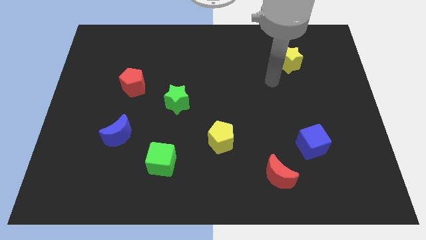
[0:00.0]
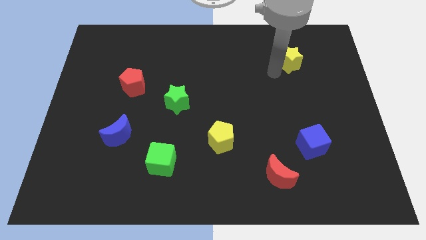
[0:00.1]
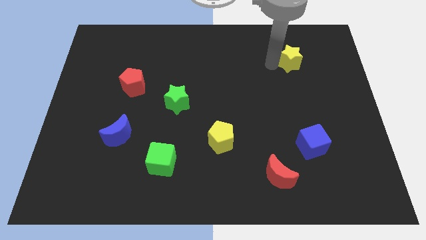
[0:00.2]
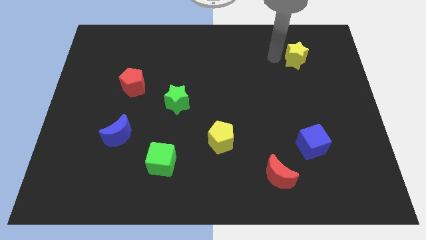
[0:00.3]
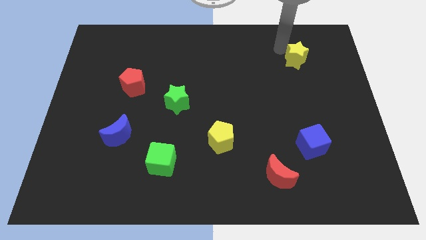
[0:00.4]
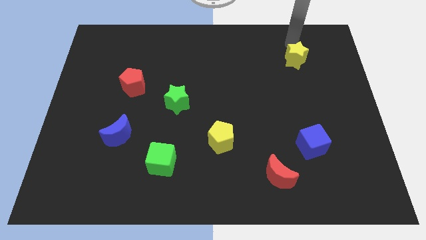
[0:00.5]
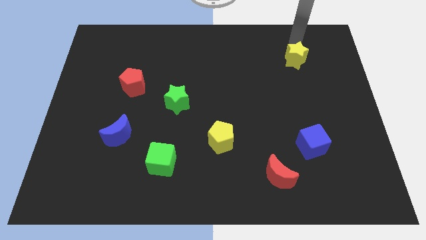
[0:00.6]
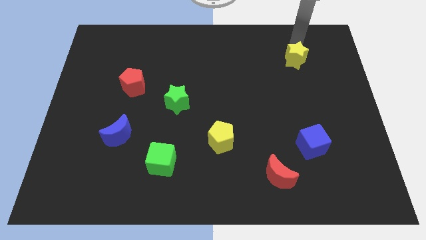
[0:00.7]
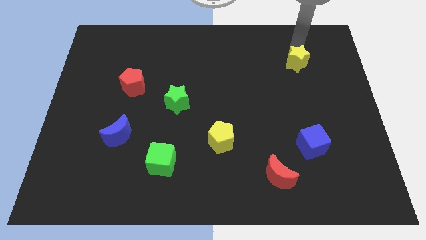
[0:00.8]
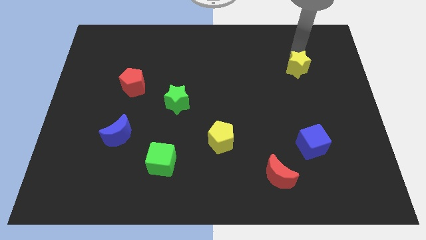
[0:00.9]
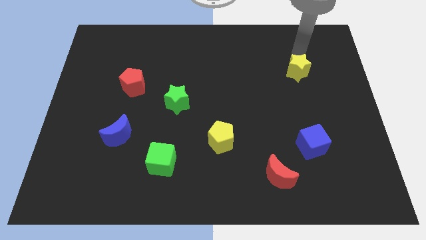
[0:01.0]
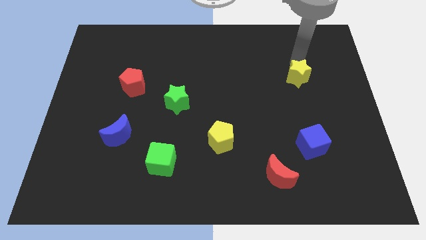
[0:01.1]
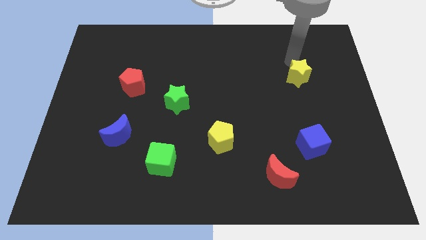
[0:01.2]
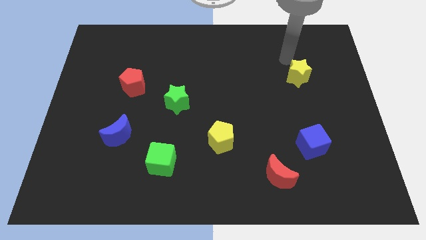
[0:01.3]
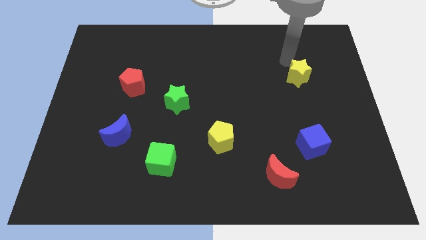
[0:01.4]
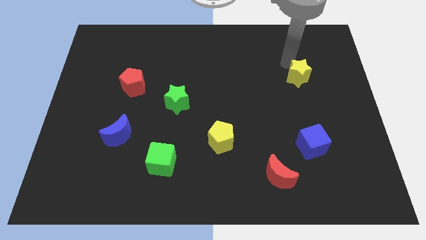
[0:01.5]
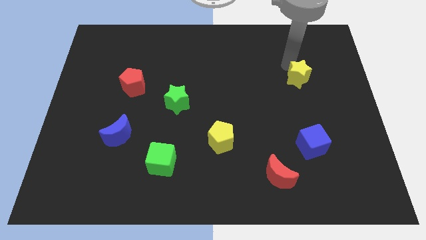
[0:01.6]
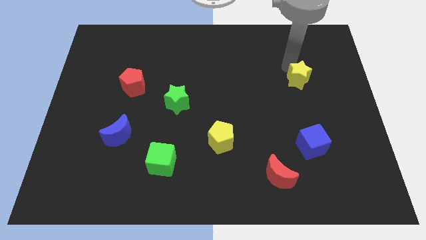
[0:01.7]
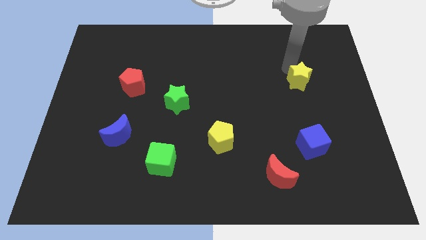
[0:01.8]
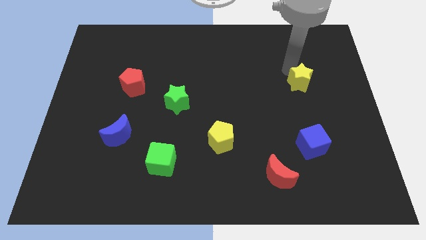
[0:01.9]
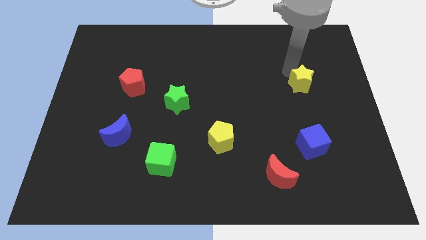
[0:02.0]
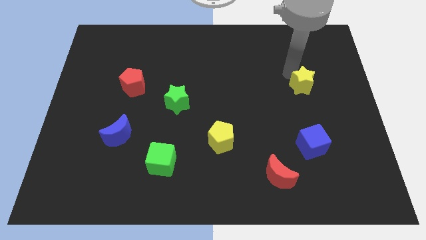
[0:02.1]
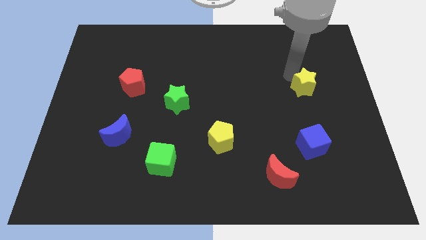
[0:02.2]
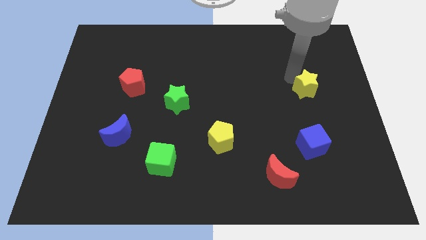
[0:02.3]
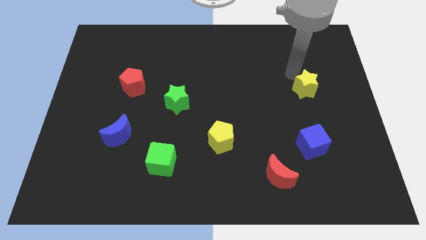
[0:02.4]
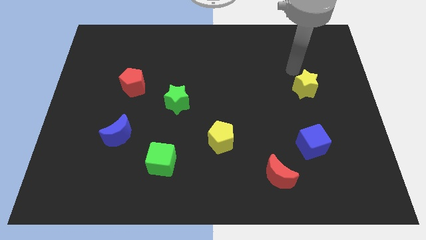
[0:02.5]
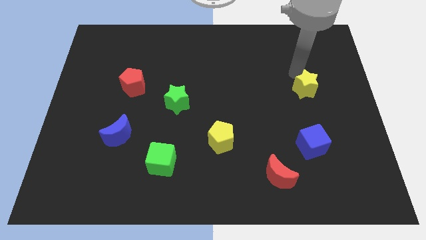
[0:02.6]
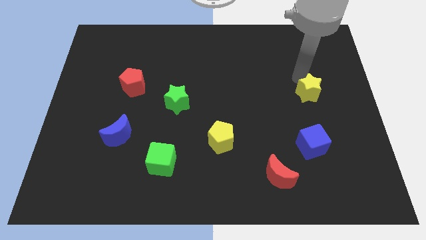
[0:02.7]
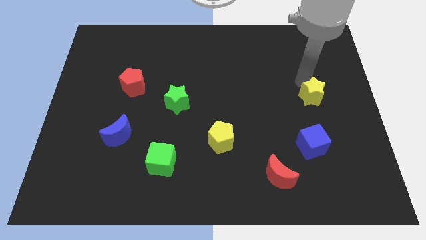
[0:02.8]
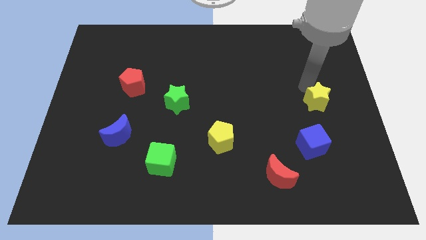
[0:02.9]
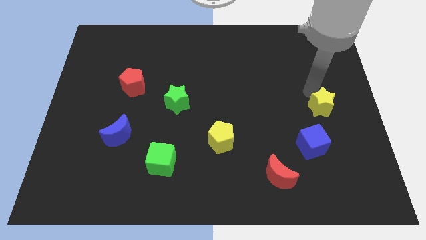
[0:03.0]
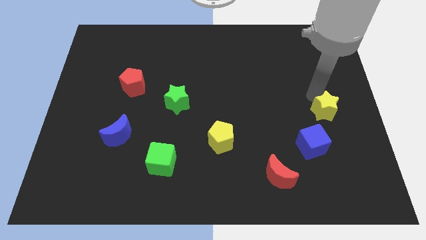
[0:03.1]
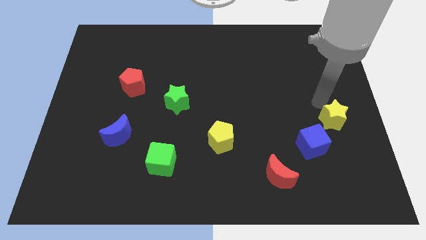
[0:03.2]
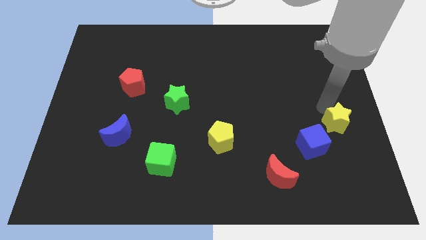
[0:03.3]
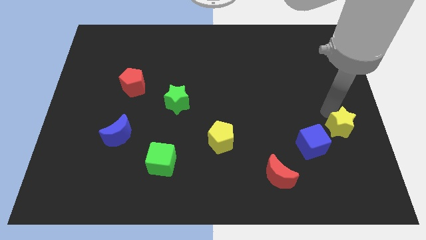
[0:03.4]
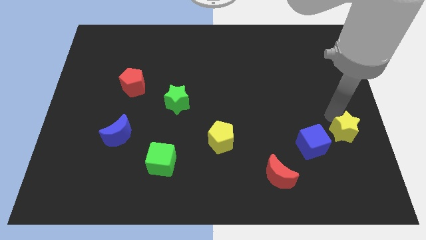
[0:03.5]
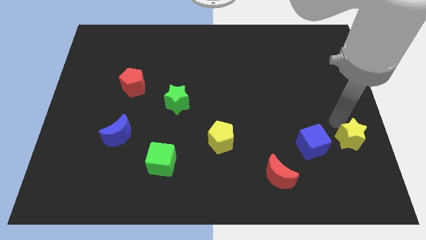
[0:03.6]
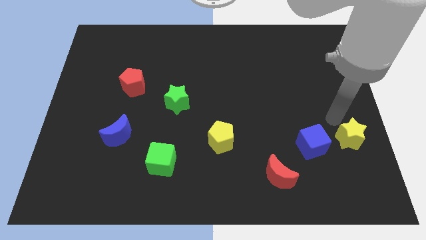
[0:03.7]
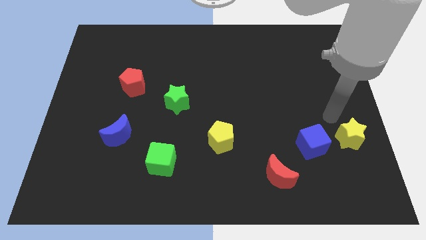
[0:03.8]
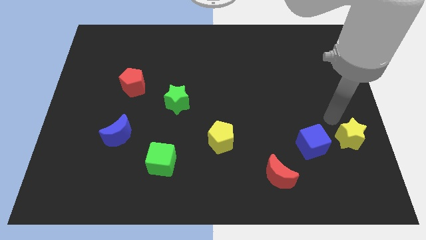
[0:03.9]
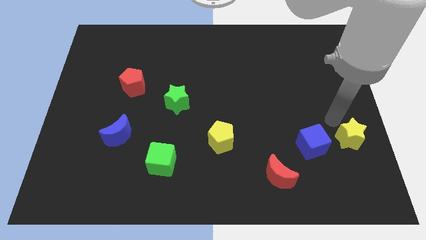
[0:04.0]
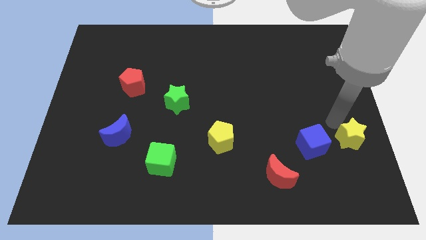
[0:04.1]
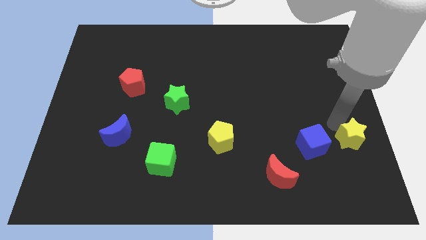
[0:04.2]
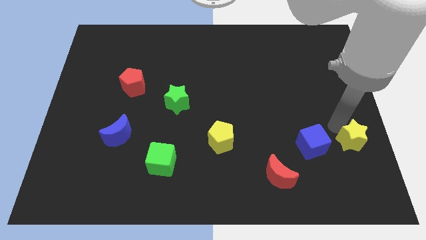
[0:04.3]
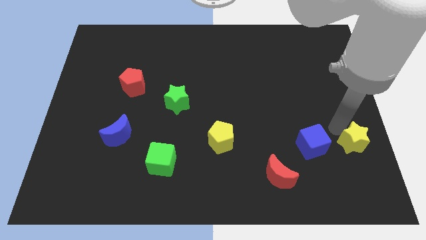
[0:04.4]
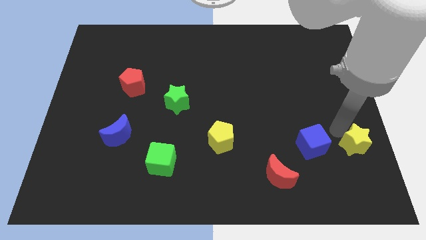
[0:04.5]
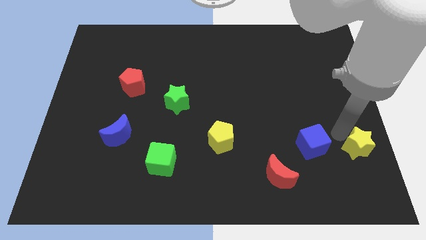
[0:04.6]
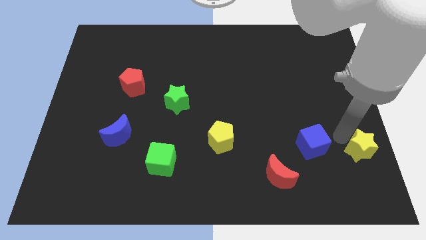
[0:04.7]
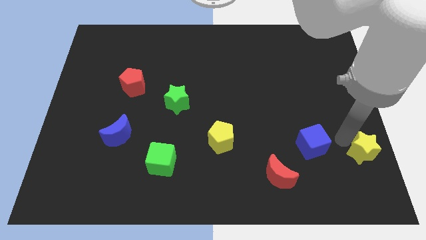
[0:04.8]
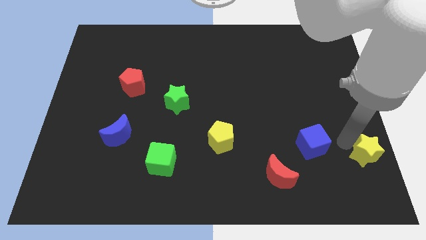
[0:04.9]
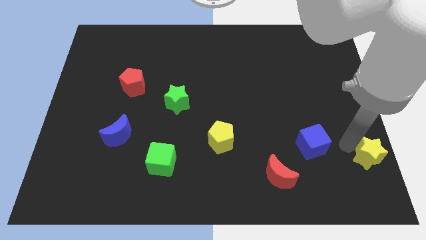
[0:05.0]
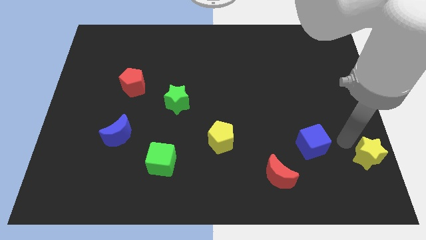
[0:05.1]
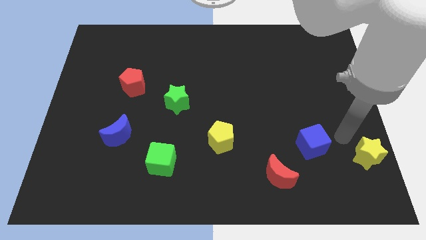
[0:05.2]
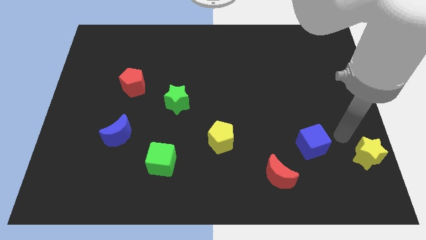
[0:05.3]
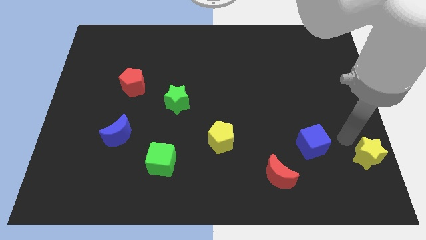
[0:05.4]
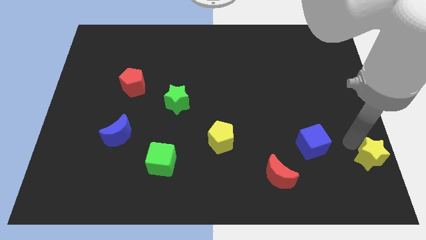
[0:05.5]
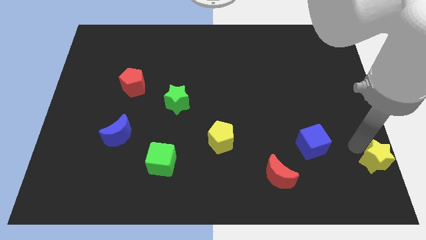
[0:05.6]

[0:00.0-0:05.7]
move the yellow star to the bottom right corner

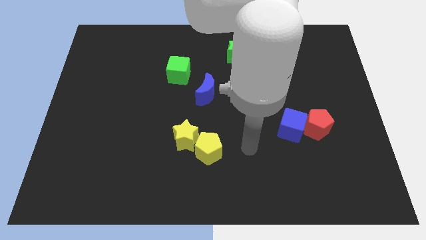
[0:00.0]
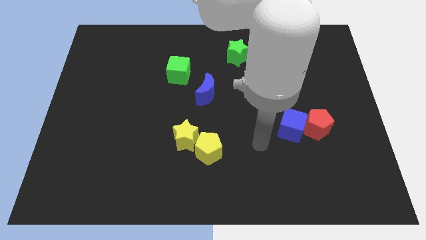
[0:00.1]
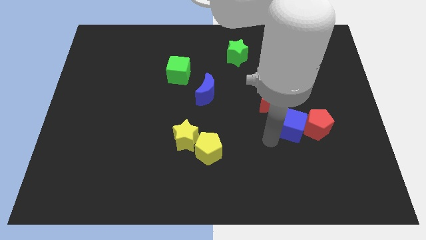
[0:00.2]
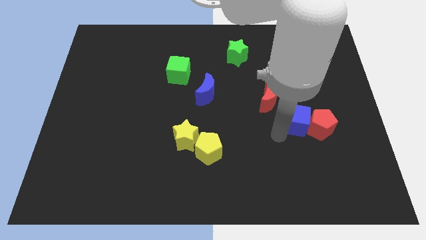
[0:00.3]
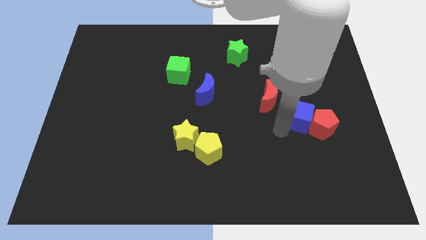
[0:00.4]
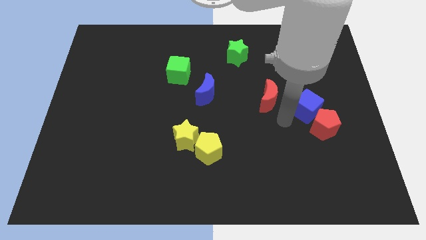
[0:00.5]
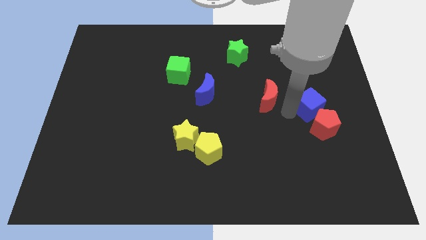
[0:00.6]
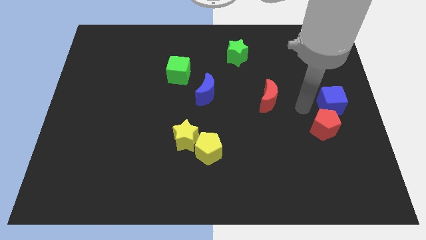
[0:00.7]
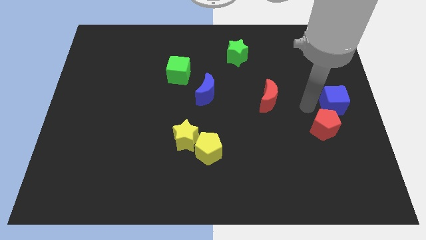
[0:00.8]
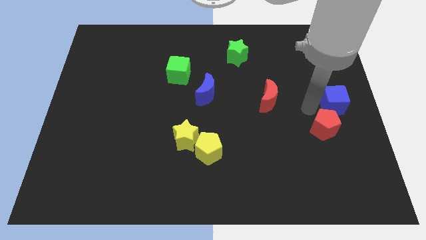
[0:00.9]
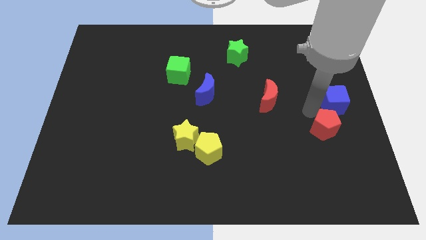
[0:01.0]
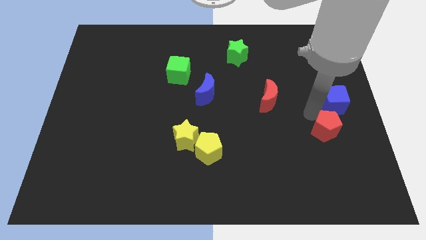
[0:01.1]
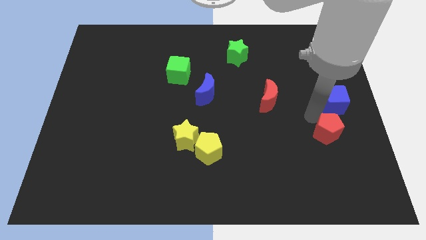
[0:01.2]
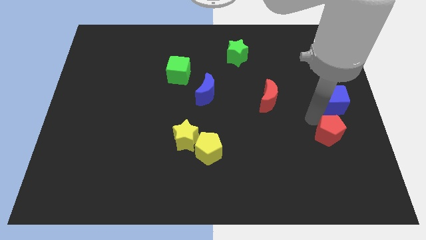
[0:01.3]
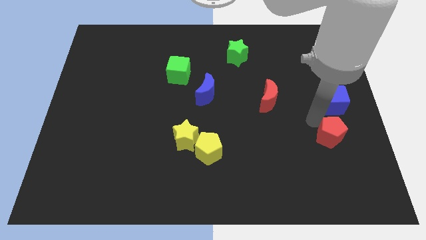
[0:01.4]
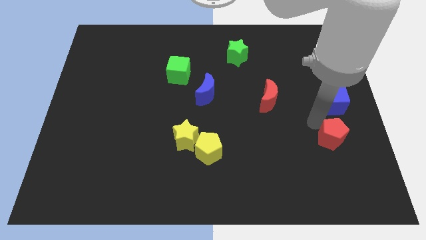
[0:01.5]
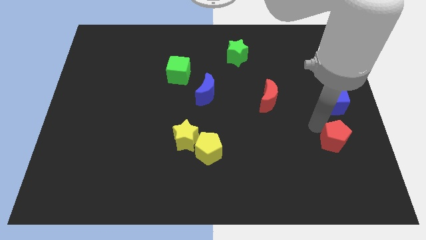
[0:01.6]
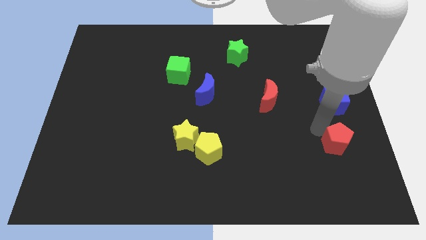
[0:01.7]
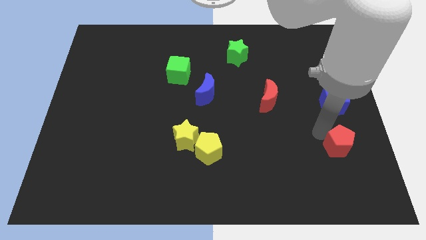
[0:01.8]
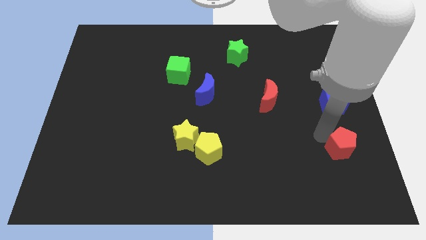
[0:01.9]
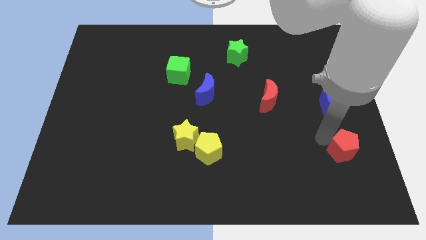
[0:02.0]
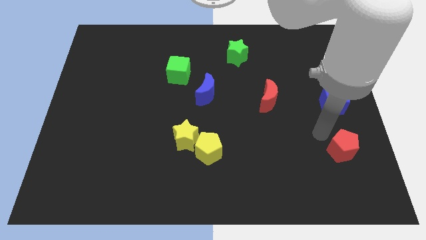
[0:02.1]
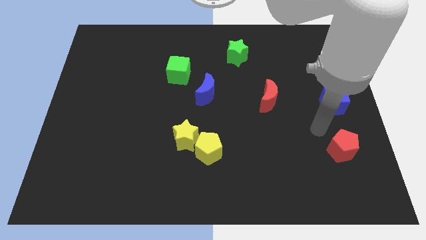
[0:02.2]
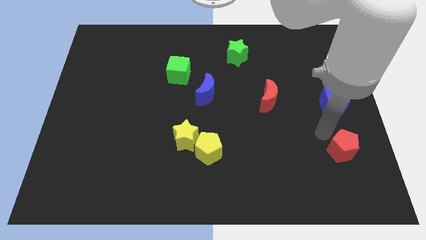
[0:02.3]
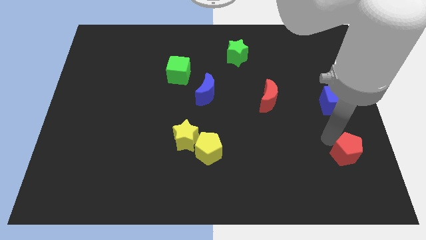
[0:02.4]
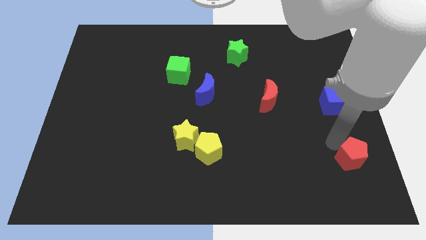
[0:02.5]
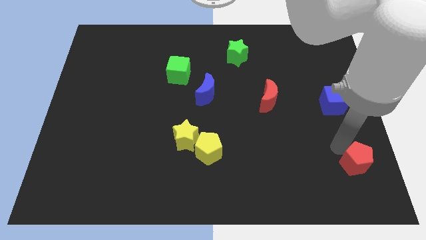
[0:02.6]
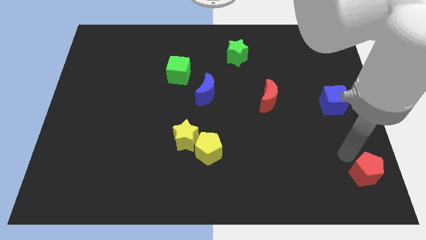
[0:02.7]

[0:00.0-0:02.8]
push the red pentagon to the lower right corner
